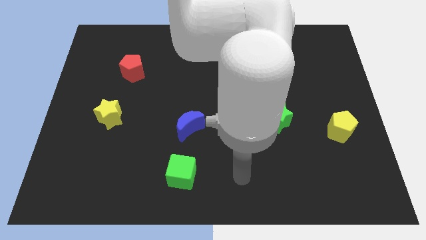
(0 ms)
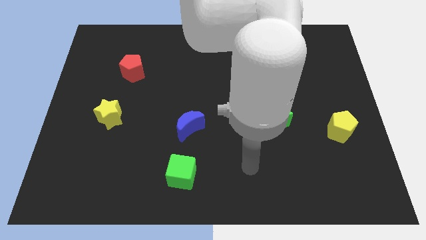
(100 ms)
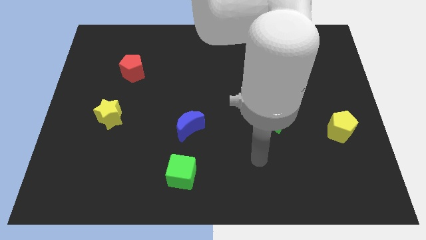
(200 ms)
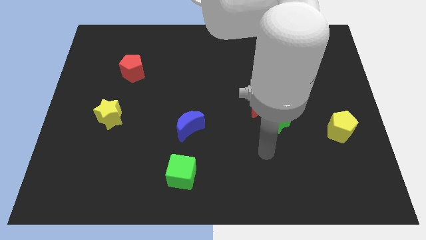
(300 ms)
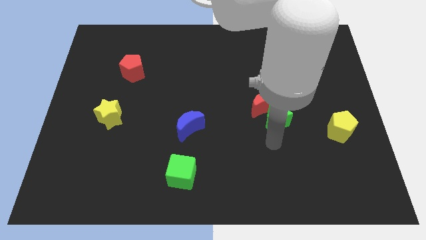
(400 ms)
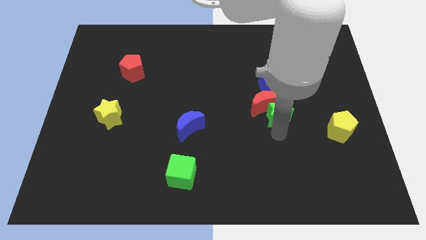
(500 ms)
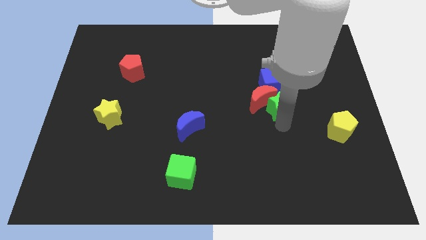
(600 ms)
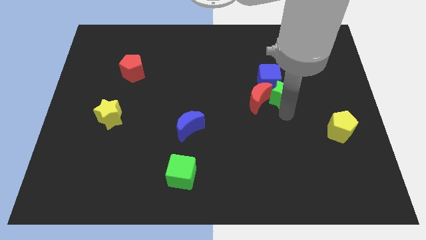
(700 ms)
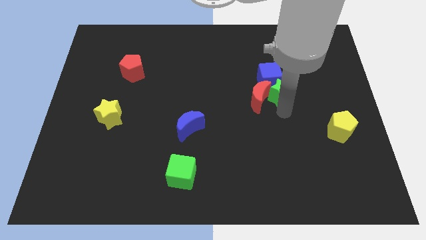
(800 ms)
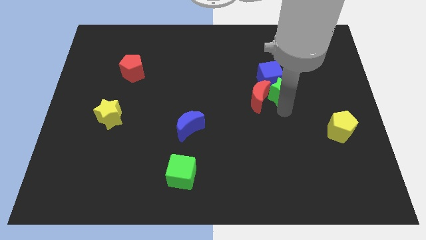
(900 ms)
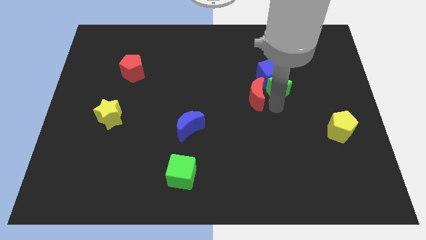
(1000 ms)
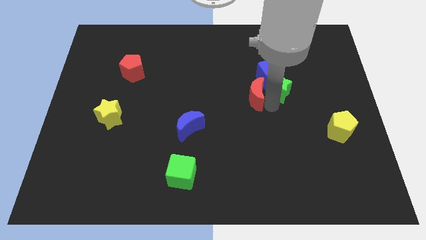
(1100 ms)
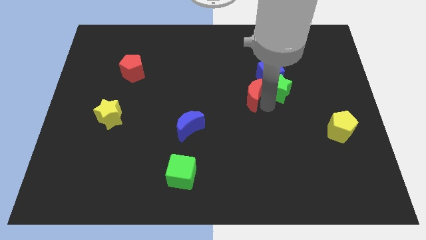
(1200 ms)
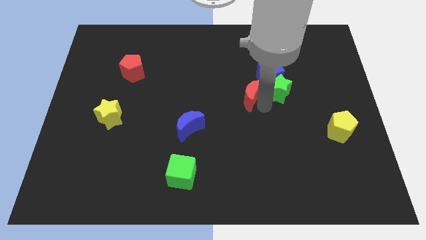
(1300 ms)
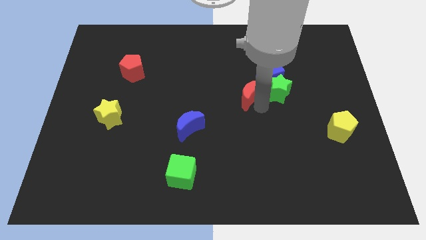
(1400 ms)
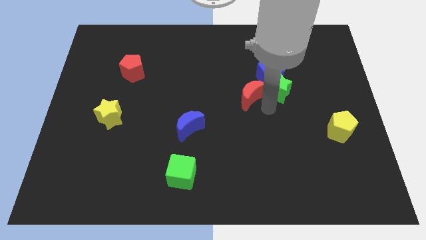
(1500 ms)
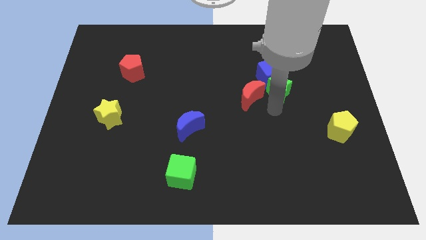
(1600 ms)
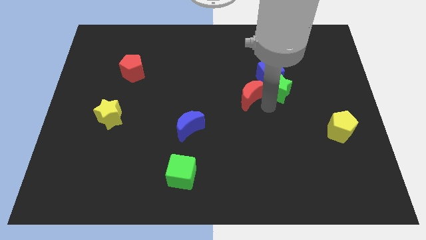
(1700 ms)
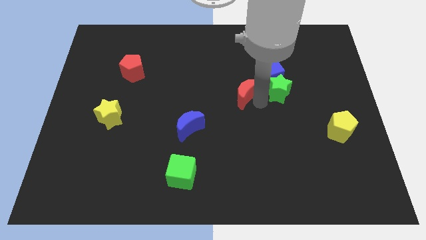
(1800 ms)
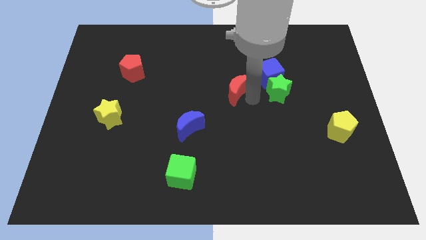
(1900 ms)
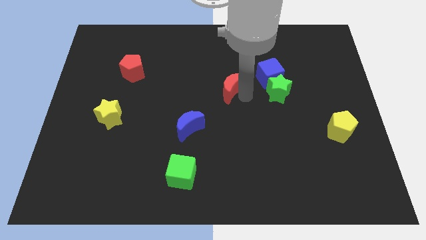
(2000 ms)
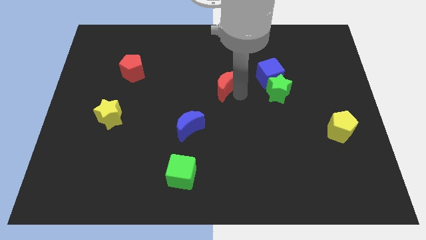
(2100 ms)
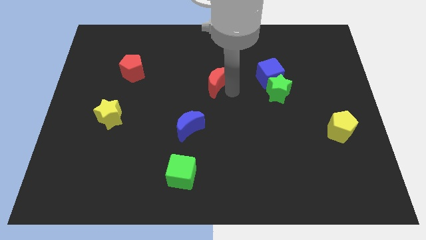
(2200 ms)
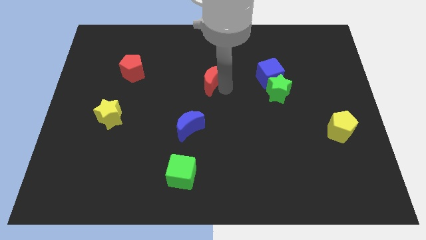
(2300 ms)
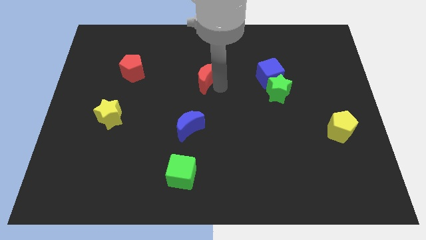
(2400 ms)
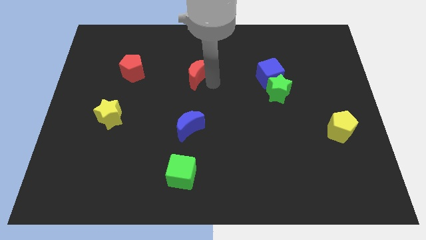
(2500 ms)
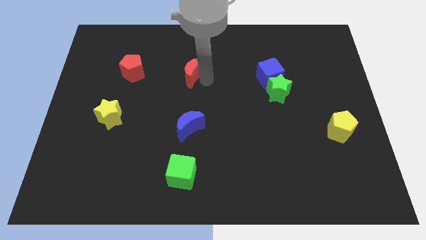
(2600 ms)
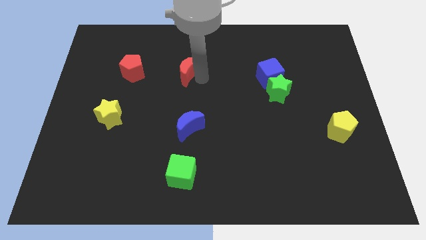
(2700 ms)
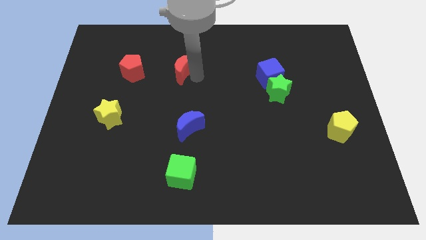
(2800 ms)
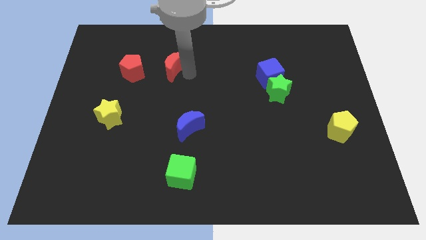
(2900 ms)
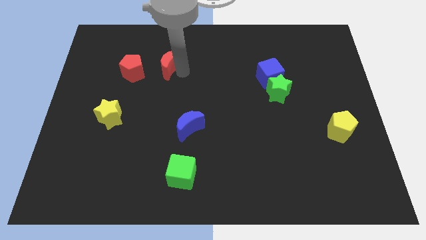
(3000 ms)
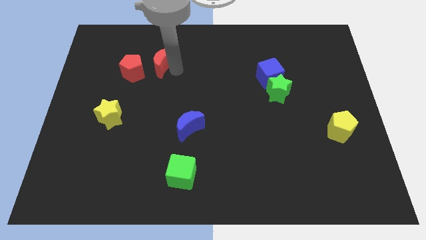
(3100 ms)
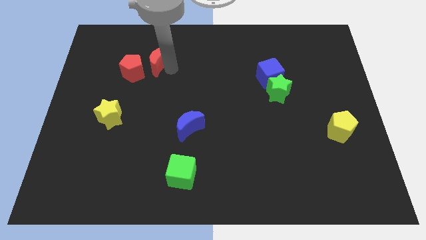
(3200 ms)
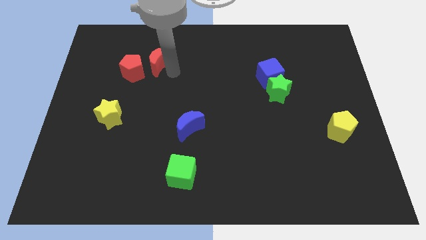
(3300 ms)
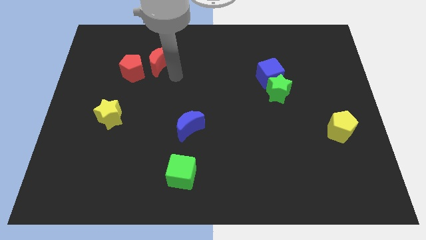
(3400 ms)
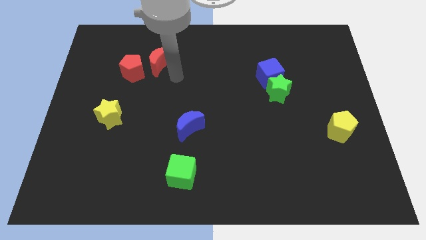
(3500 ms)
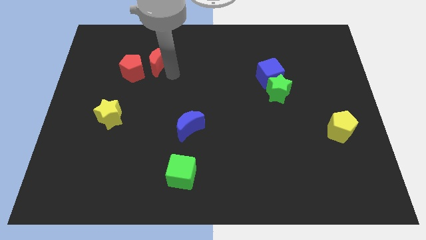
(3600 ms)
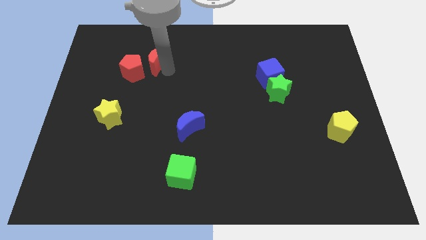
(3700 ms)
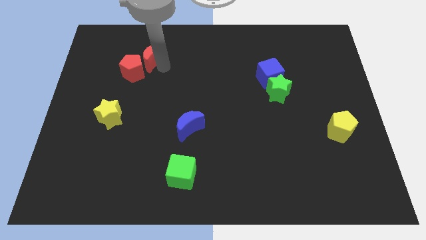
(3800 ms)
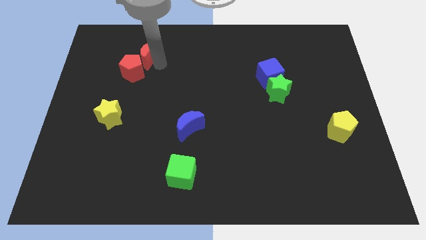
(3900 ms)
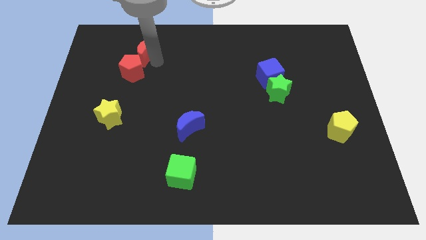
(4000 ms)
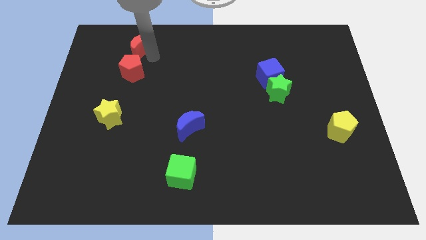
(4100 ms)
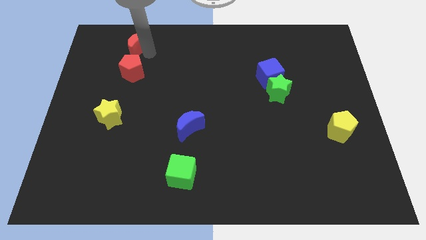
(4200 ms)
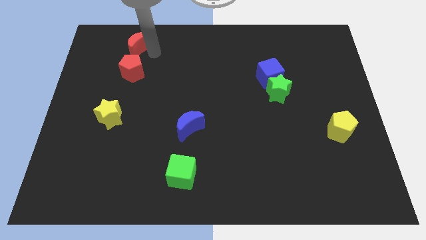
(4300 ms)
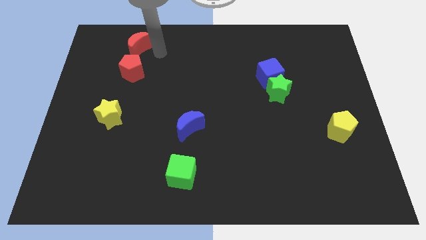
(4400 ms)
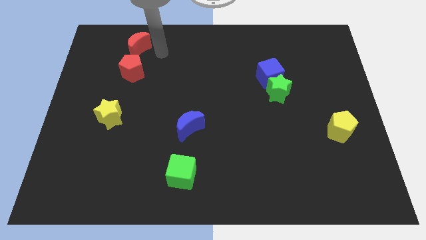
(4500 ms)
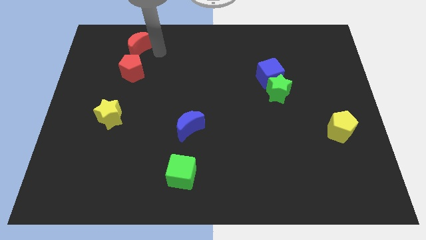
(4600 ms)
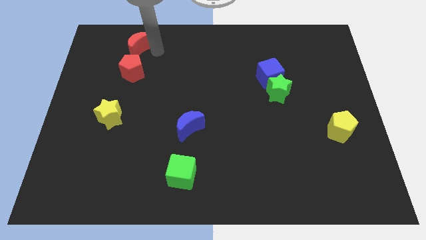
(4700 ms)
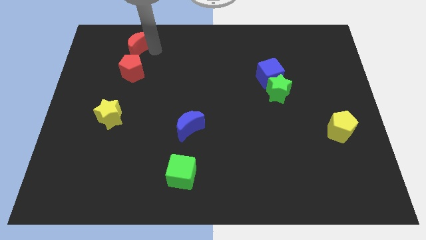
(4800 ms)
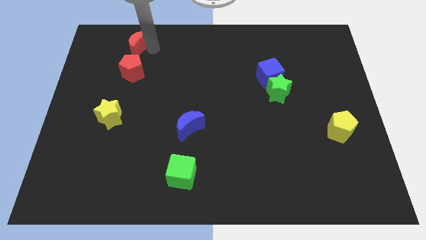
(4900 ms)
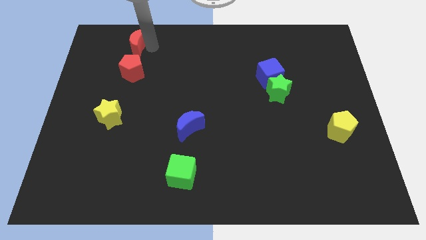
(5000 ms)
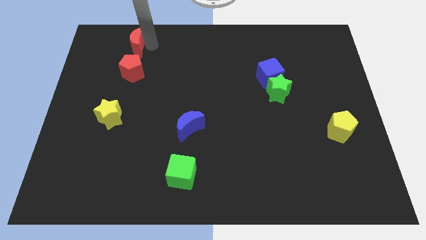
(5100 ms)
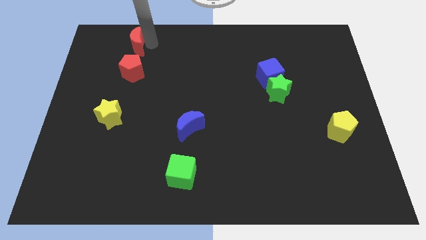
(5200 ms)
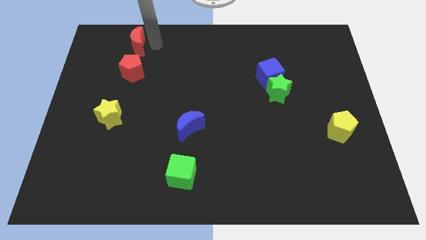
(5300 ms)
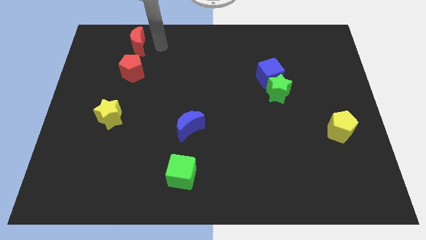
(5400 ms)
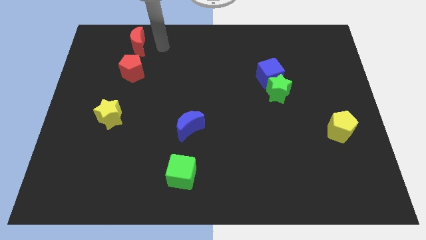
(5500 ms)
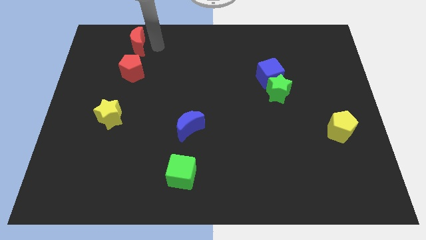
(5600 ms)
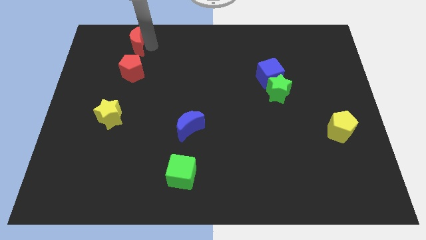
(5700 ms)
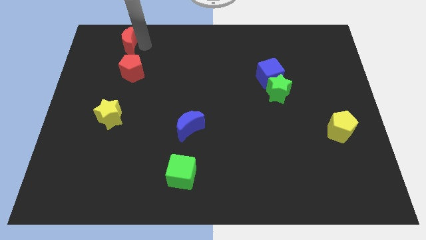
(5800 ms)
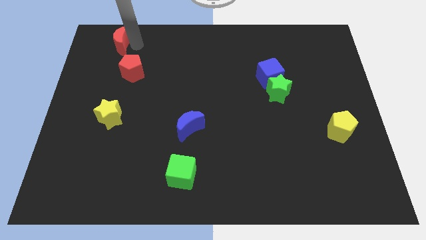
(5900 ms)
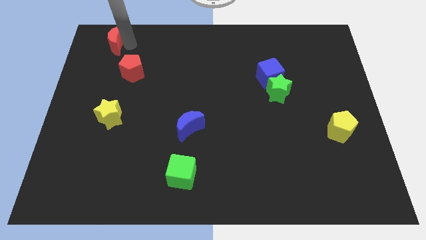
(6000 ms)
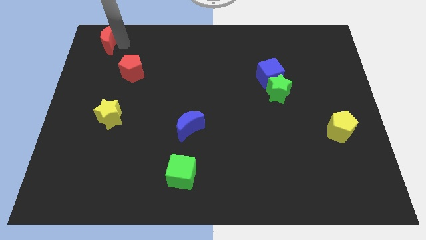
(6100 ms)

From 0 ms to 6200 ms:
put the red moon to the upper left corner
